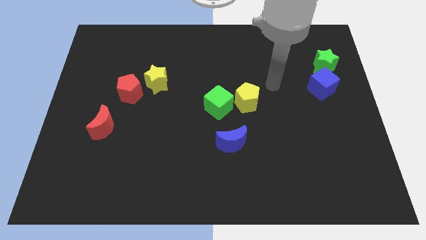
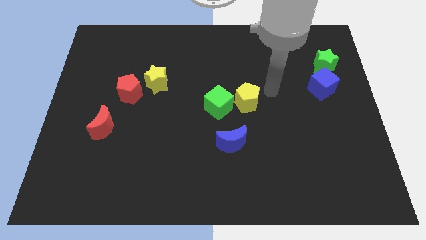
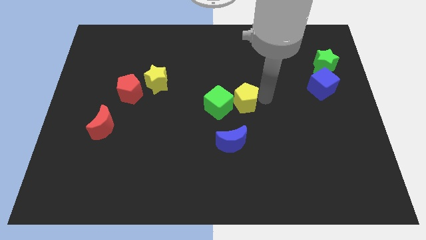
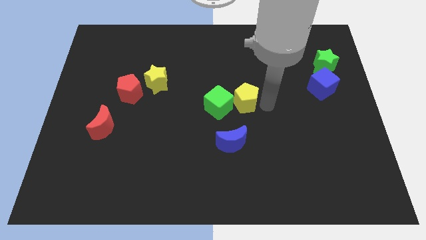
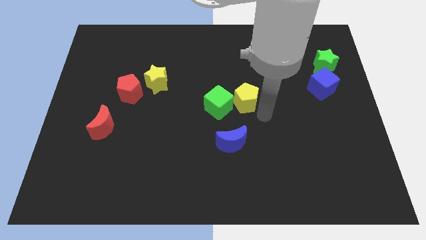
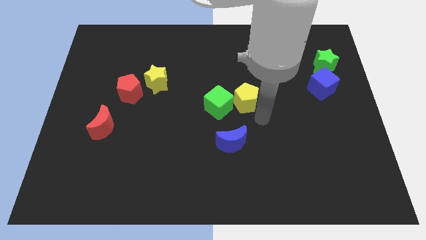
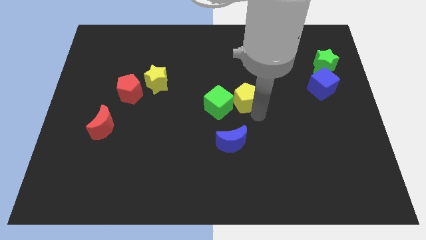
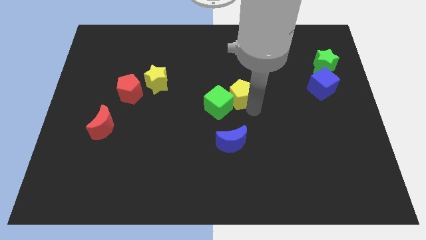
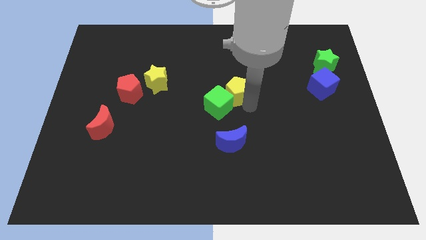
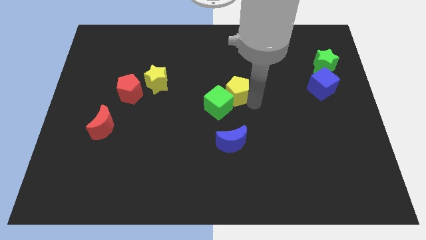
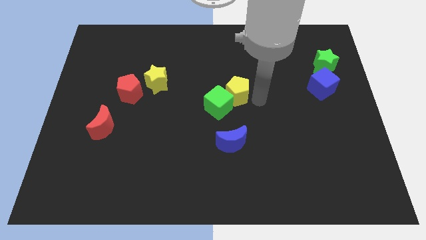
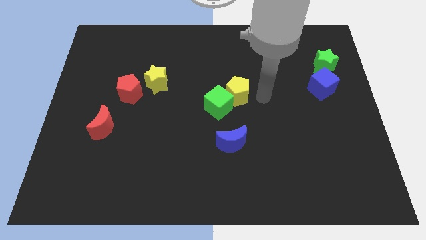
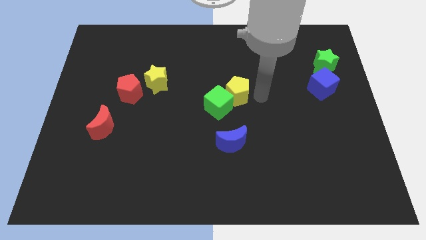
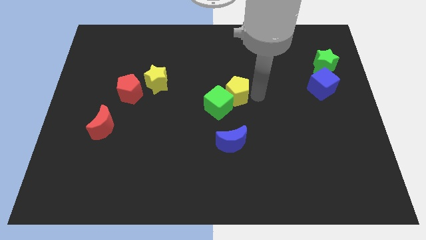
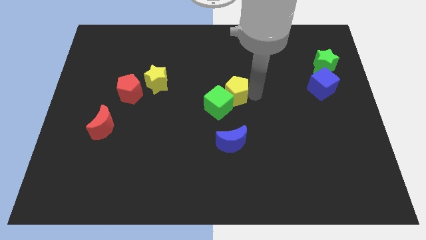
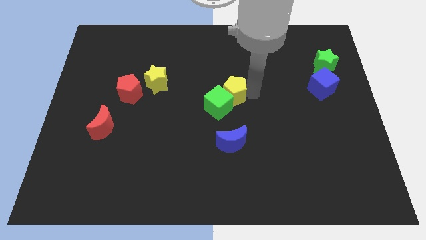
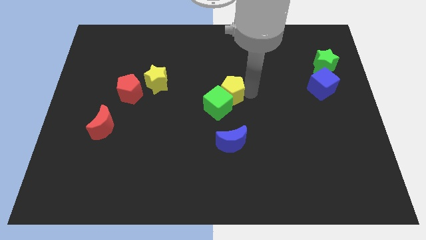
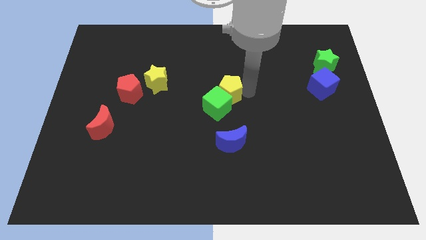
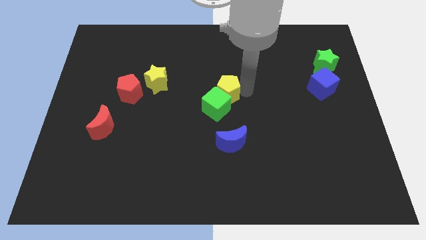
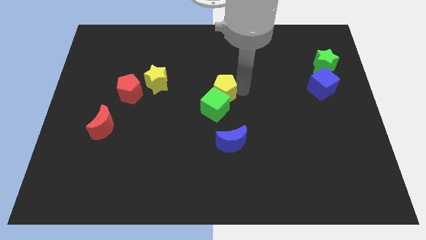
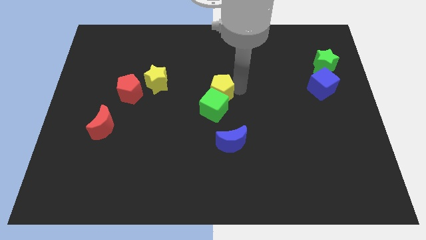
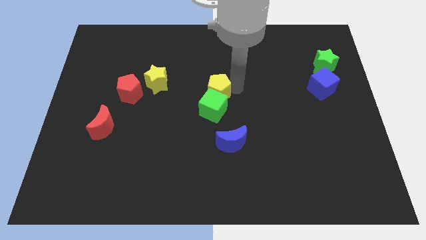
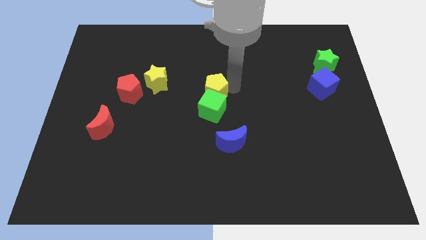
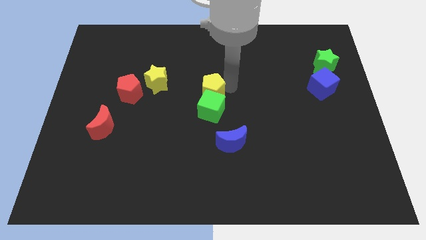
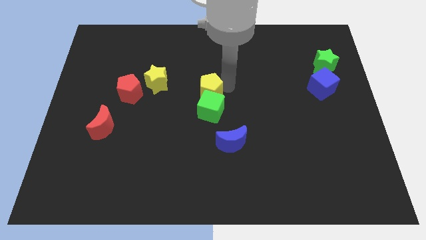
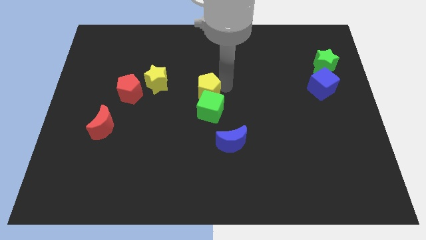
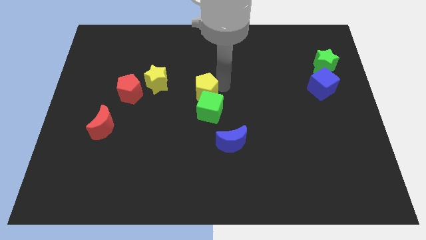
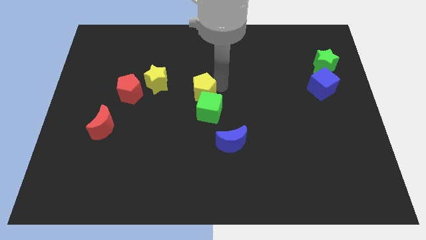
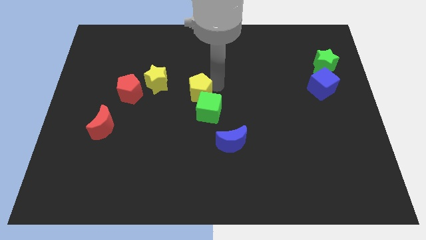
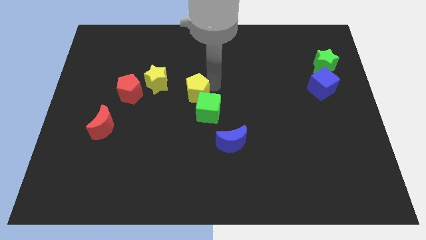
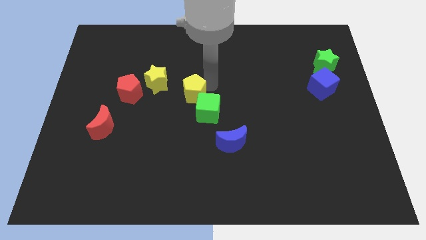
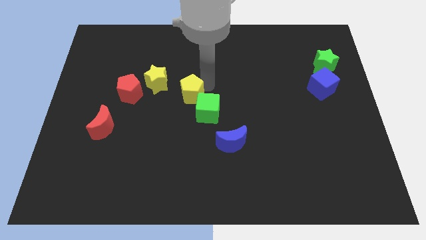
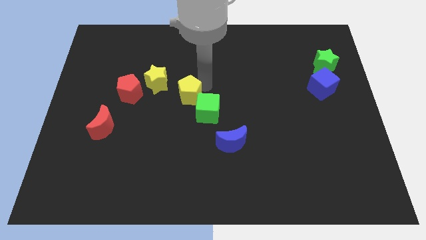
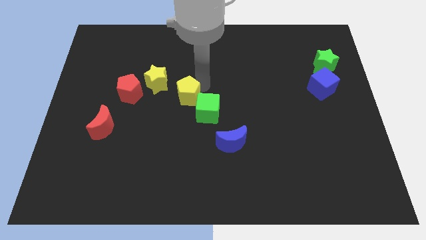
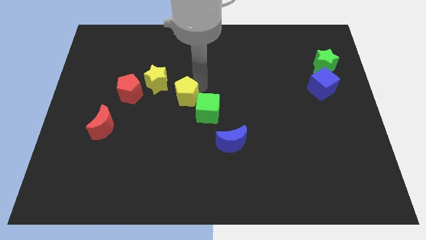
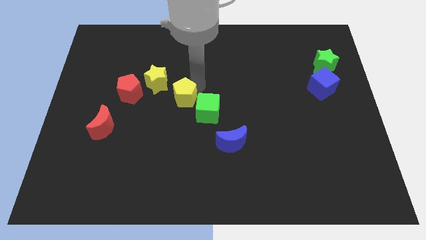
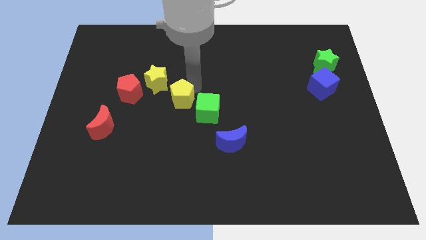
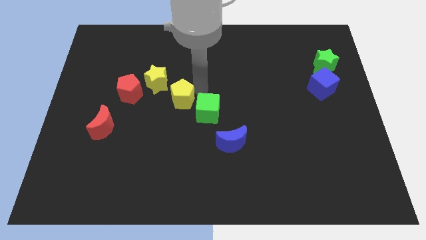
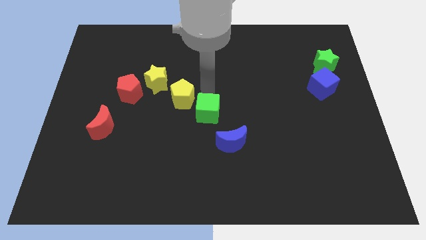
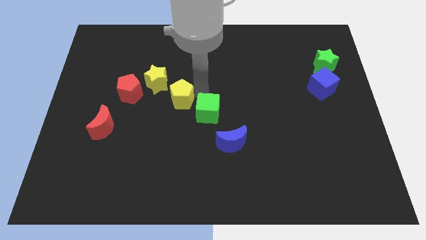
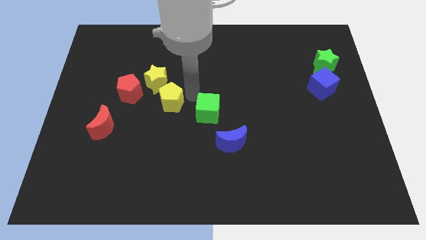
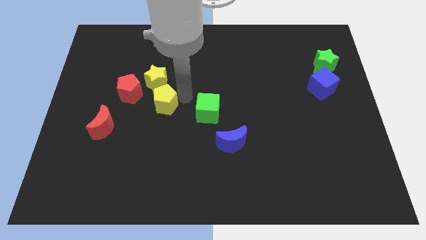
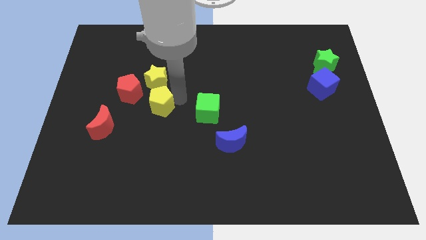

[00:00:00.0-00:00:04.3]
move the yellow pentagon to the left

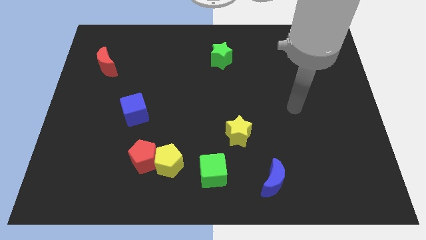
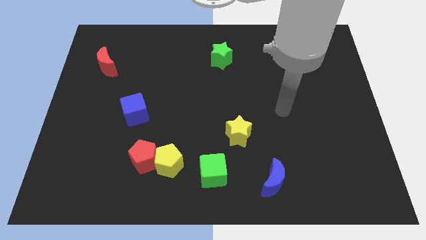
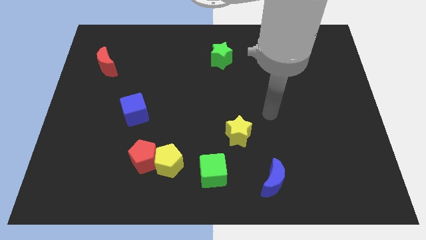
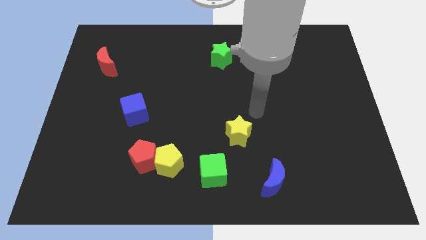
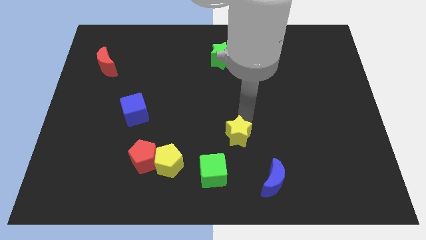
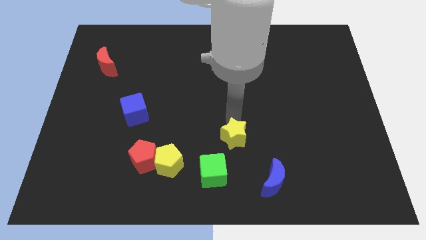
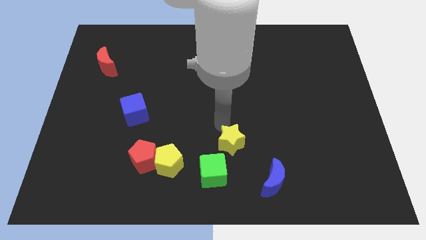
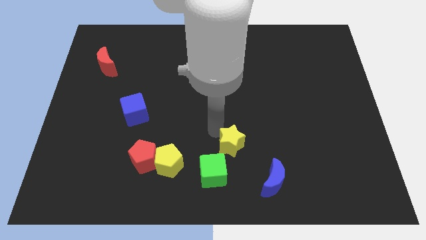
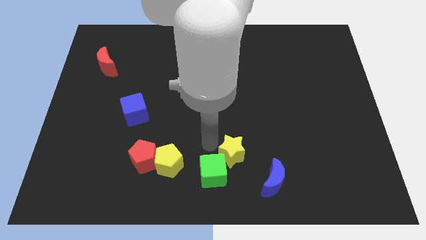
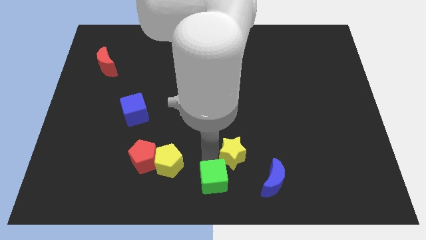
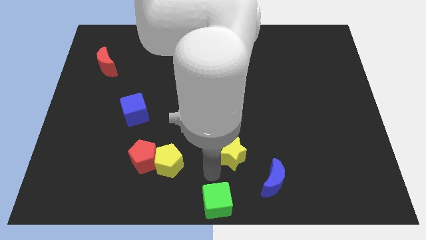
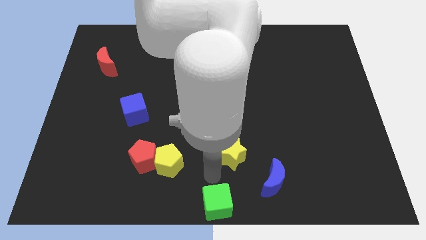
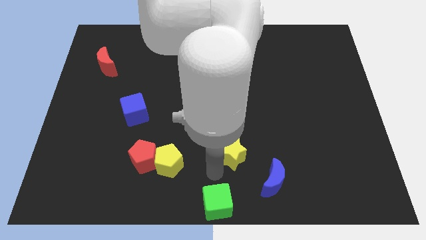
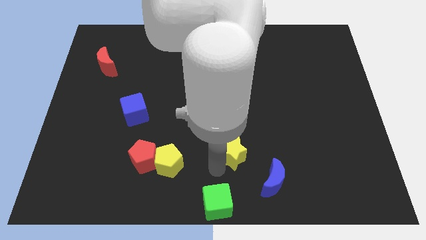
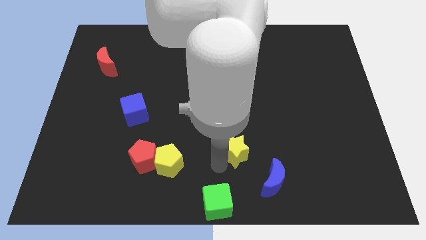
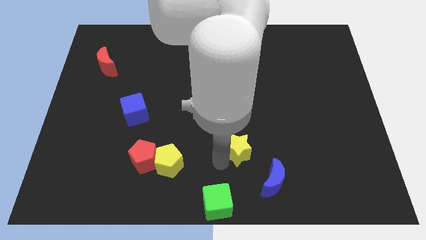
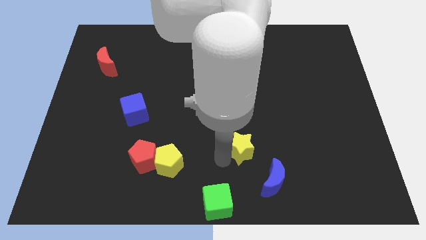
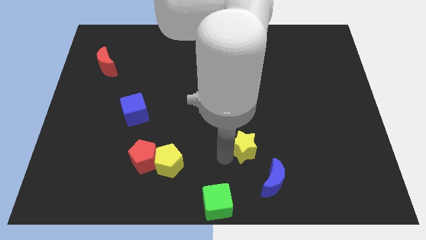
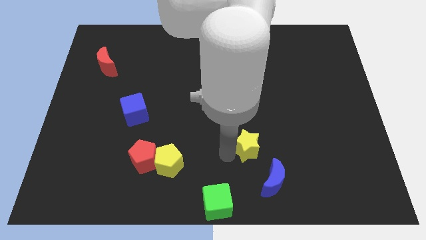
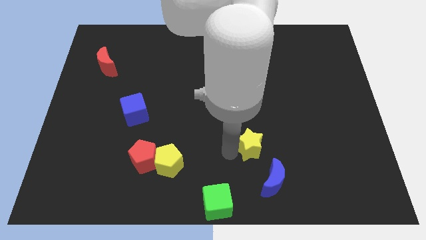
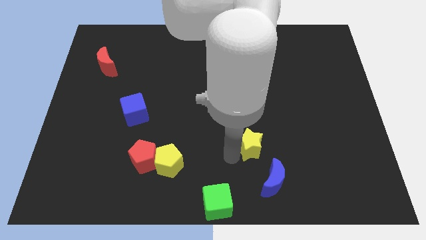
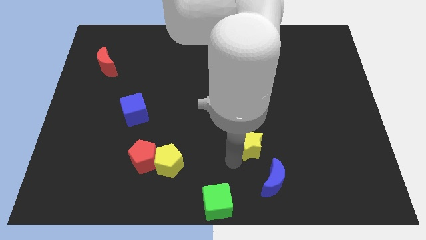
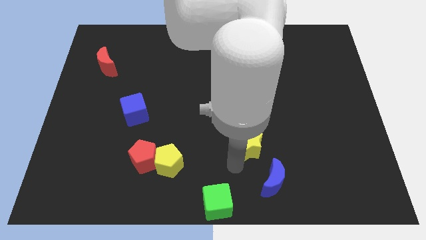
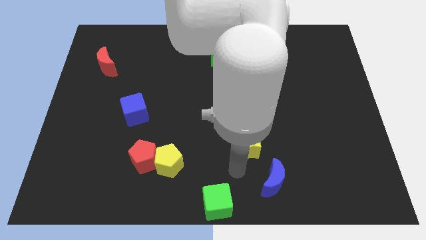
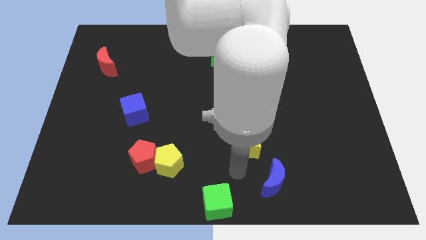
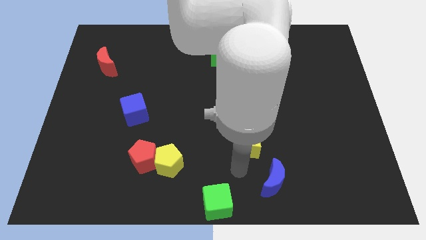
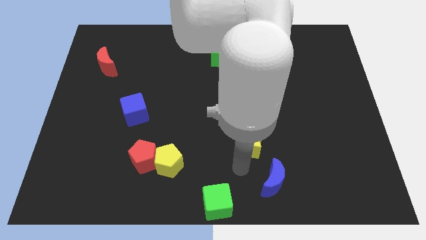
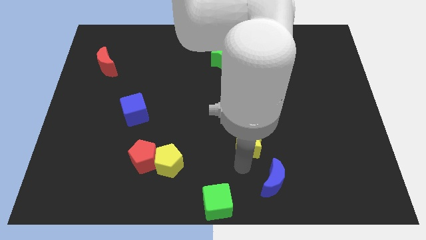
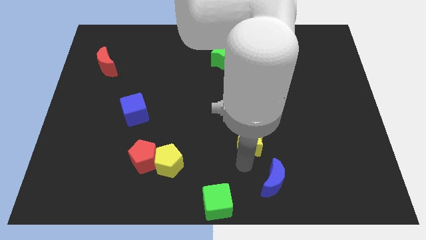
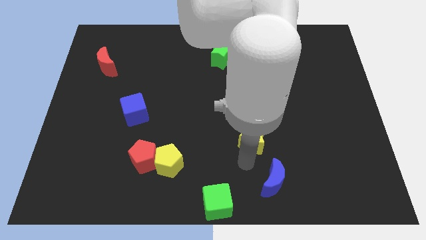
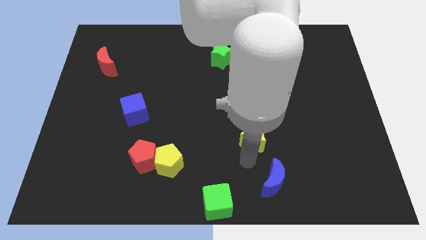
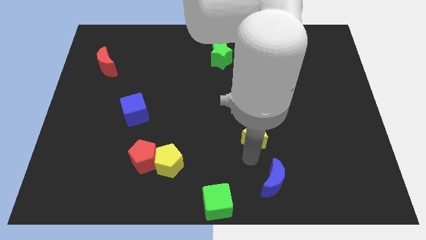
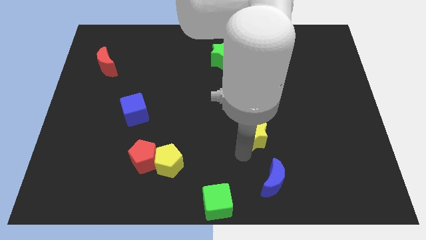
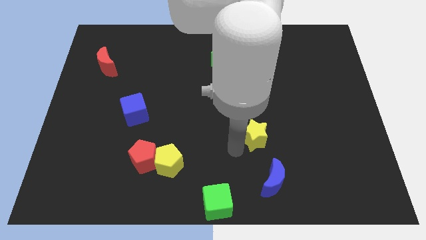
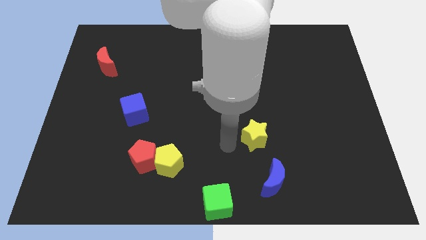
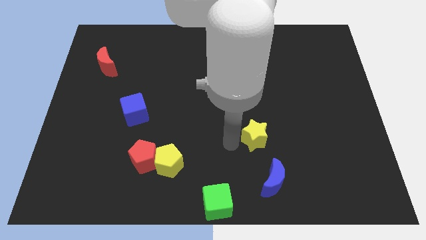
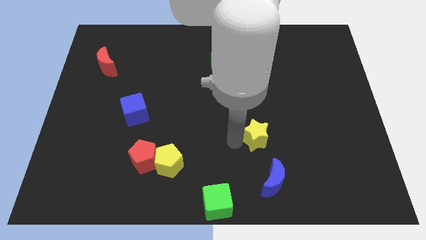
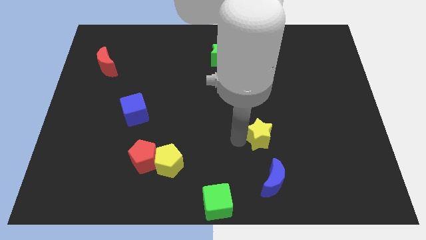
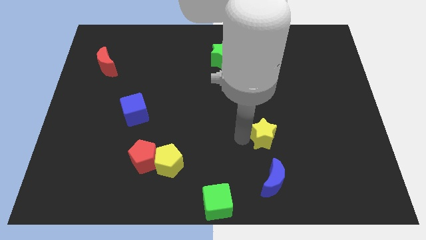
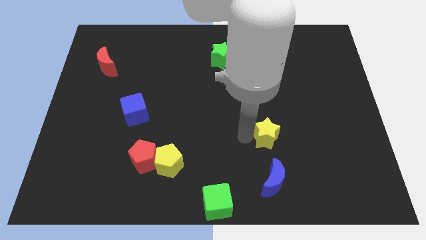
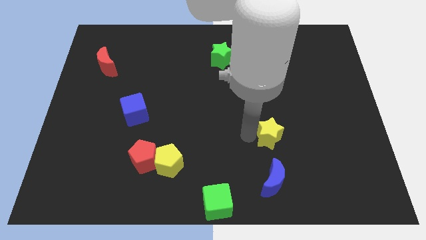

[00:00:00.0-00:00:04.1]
push the yellow star to the right a little bit
